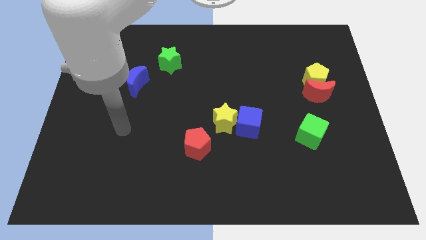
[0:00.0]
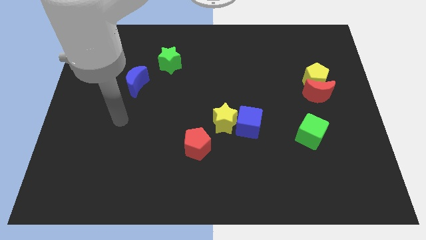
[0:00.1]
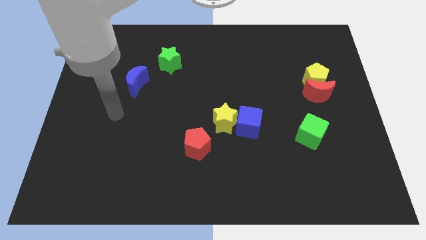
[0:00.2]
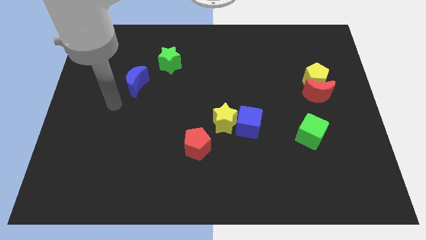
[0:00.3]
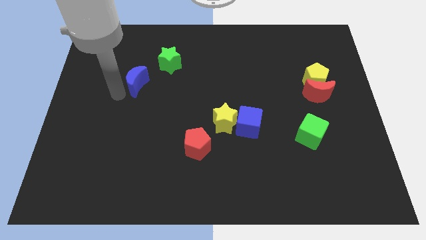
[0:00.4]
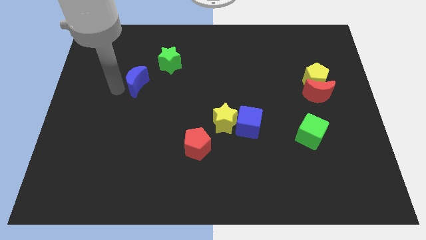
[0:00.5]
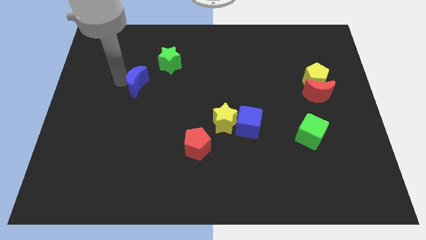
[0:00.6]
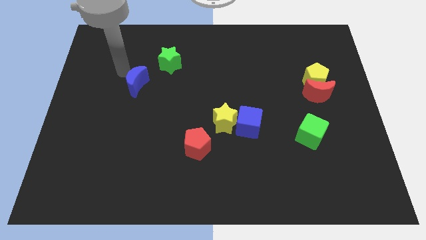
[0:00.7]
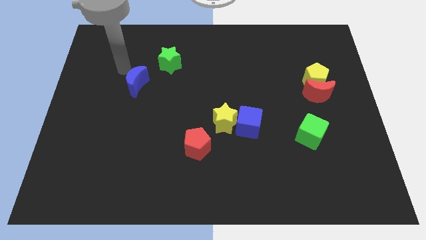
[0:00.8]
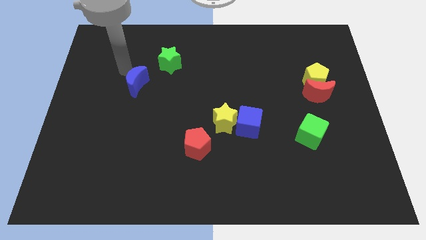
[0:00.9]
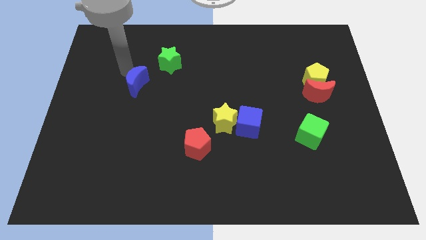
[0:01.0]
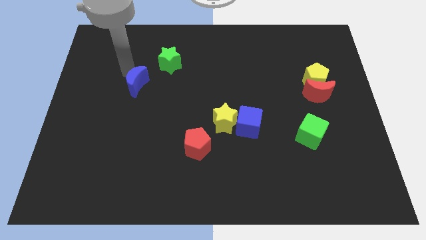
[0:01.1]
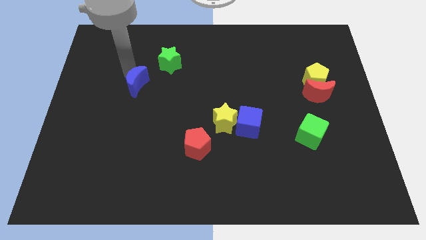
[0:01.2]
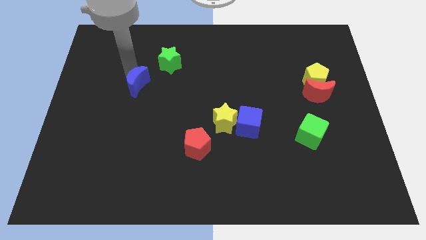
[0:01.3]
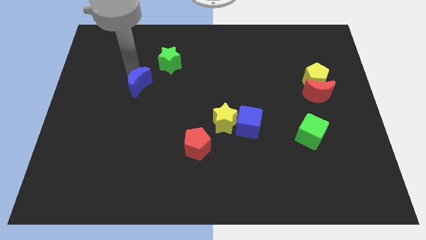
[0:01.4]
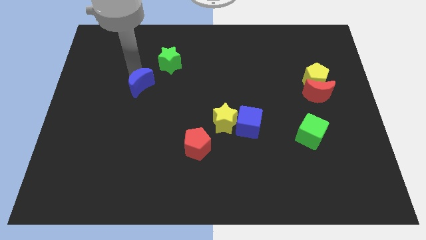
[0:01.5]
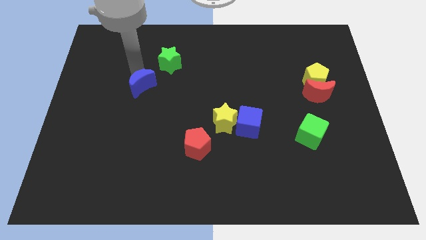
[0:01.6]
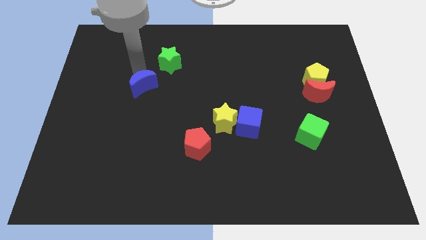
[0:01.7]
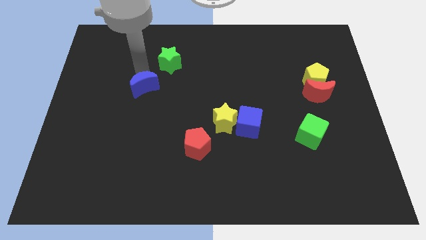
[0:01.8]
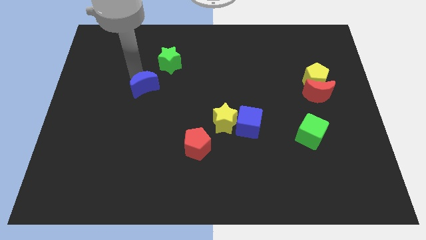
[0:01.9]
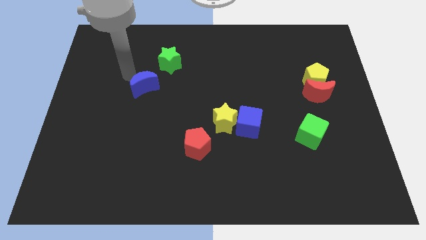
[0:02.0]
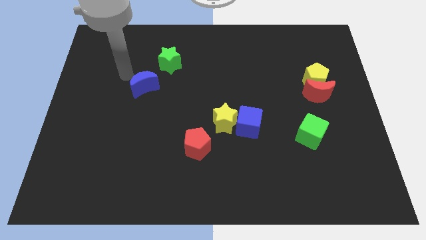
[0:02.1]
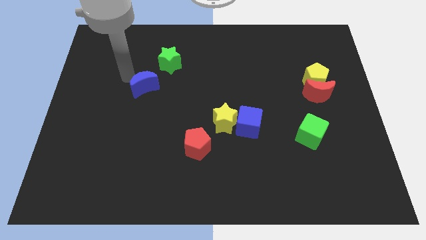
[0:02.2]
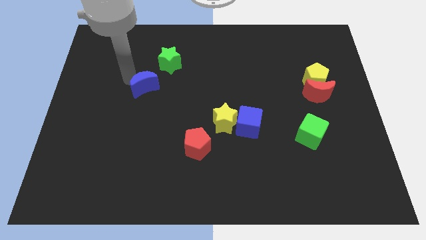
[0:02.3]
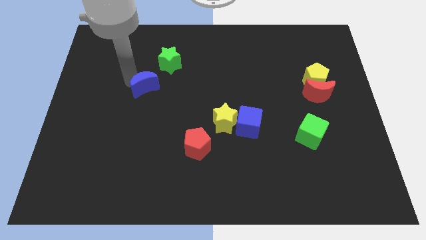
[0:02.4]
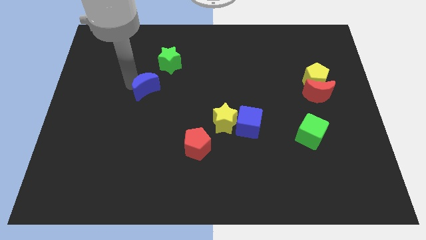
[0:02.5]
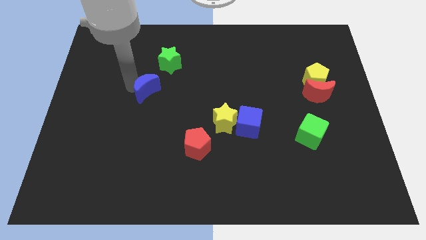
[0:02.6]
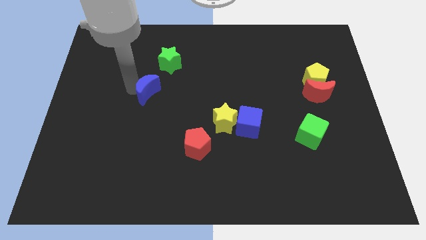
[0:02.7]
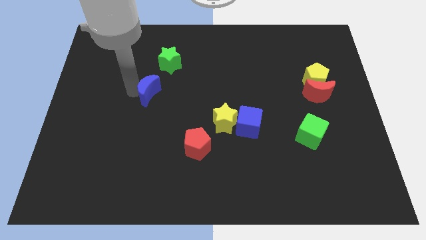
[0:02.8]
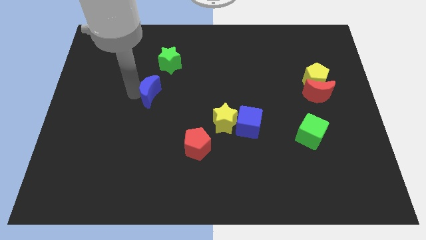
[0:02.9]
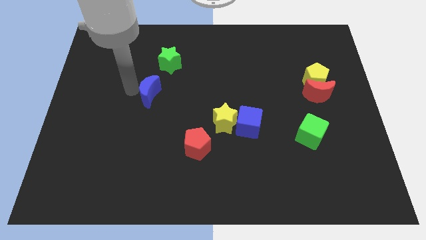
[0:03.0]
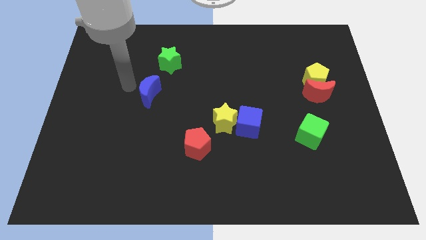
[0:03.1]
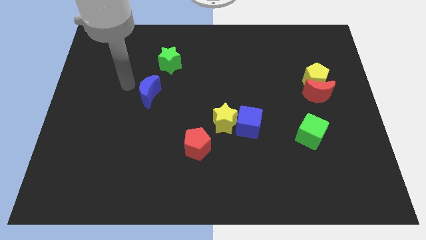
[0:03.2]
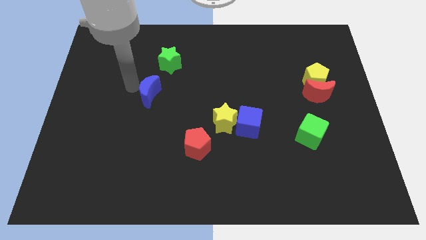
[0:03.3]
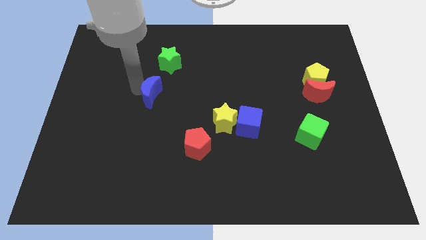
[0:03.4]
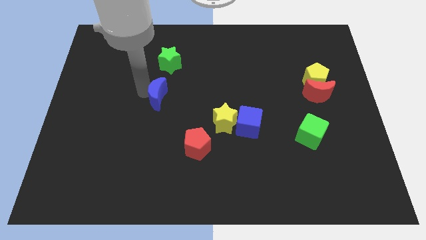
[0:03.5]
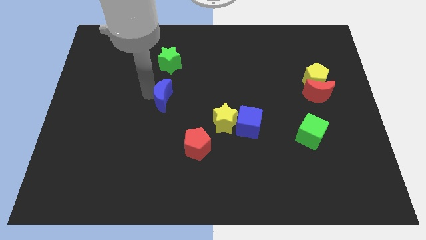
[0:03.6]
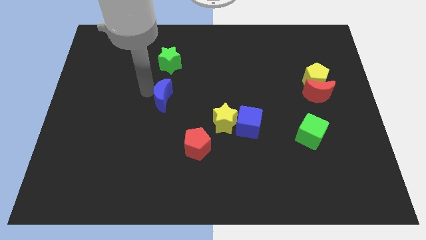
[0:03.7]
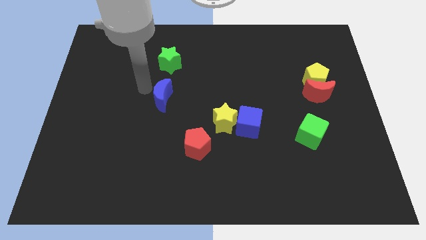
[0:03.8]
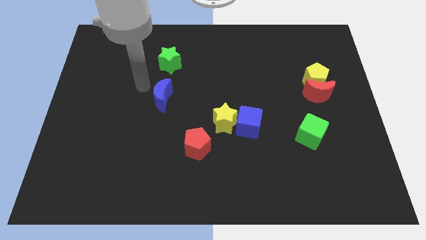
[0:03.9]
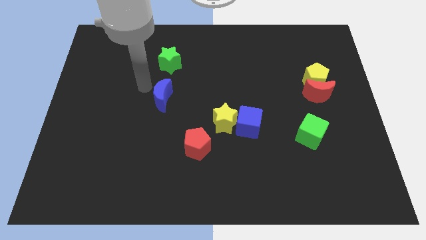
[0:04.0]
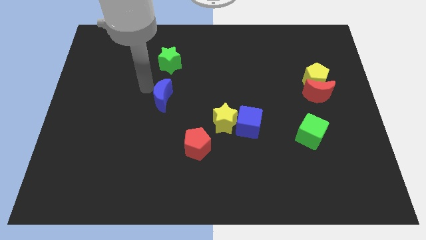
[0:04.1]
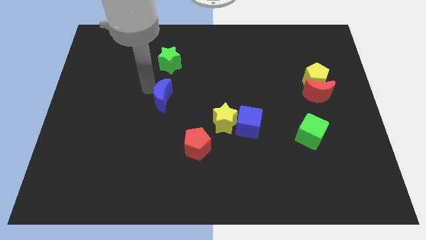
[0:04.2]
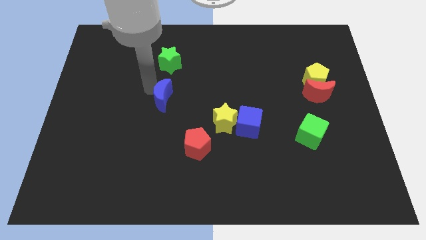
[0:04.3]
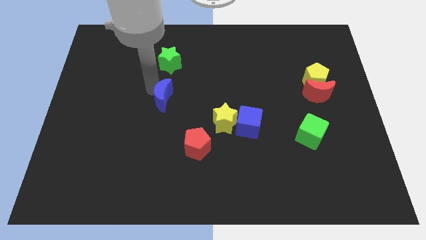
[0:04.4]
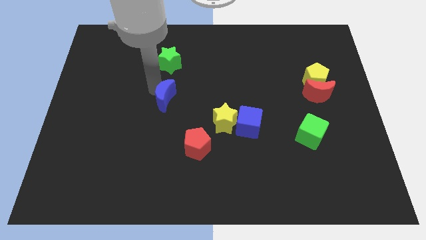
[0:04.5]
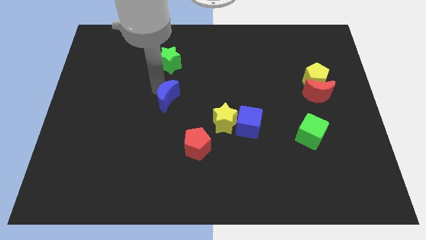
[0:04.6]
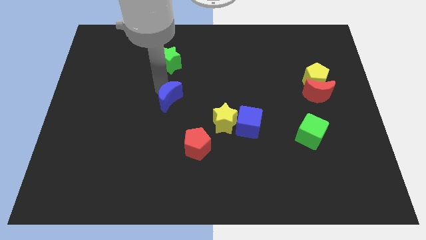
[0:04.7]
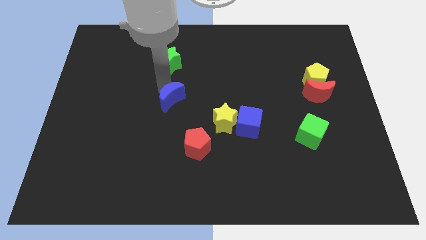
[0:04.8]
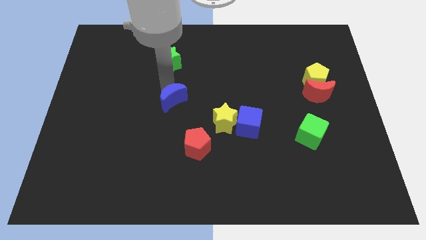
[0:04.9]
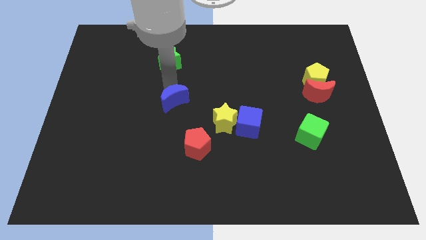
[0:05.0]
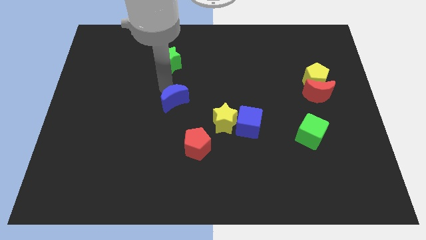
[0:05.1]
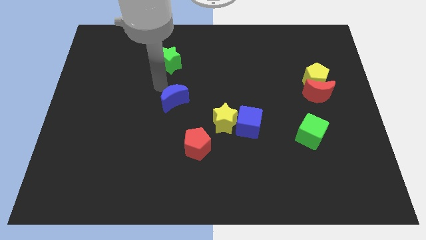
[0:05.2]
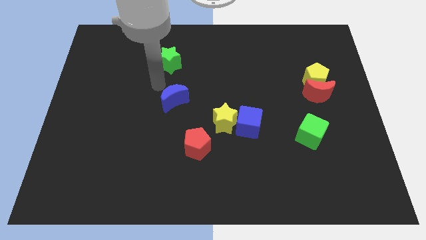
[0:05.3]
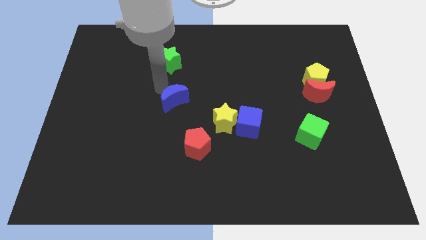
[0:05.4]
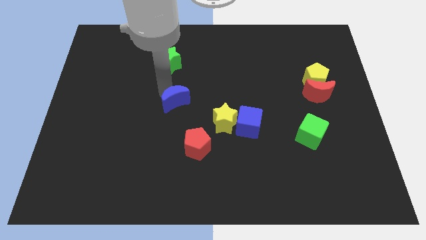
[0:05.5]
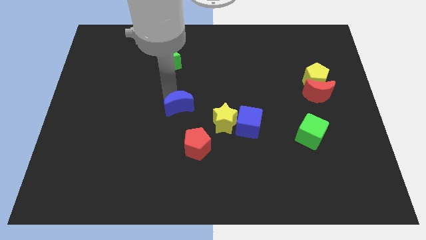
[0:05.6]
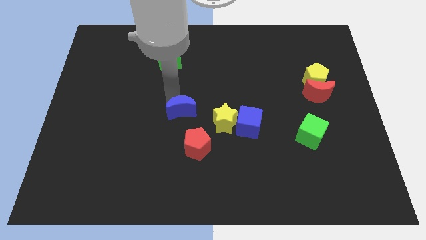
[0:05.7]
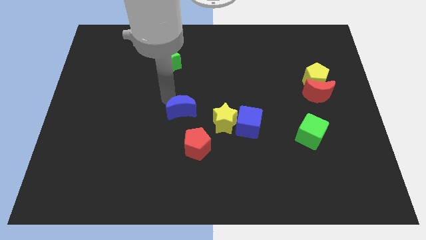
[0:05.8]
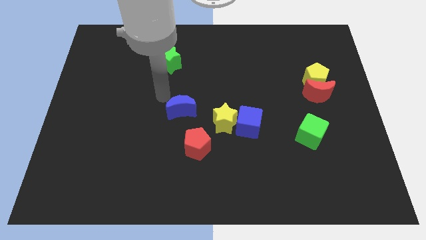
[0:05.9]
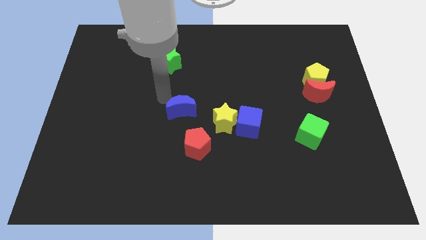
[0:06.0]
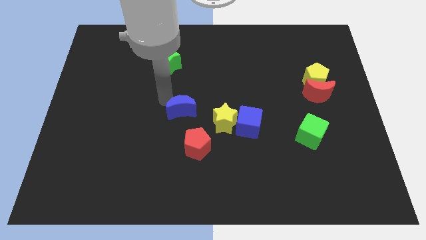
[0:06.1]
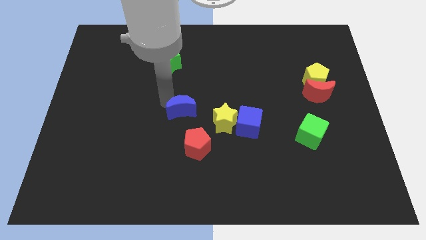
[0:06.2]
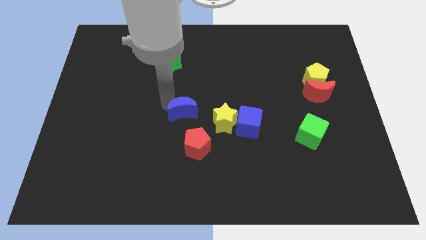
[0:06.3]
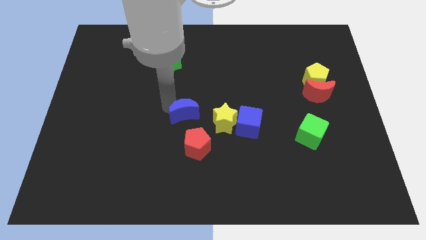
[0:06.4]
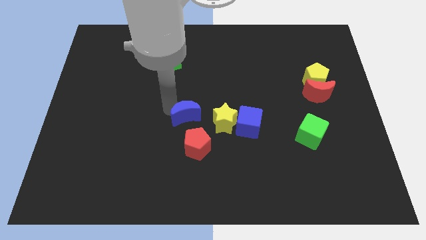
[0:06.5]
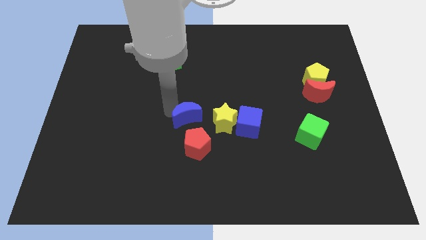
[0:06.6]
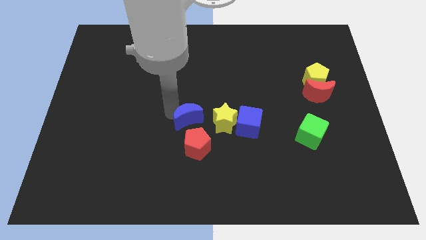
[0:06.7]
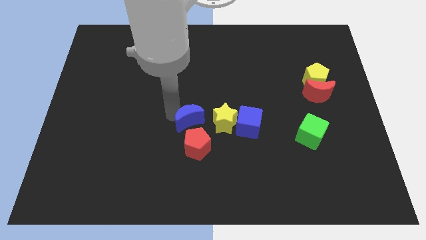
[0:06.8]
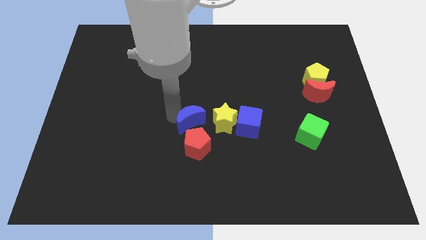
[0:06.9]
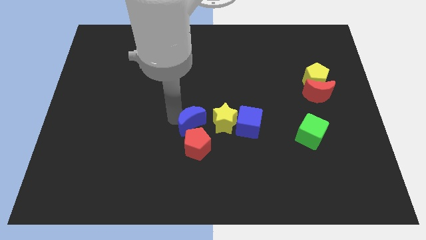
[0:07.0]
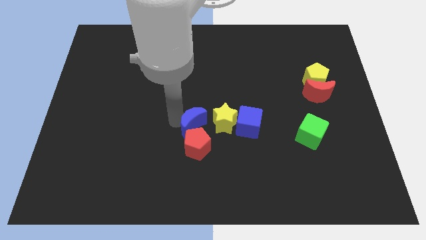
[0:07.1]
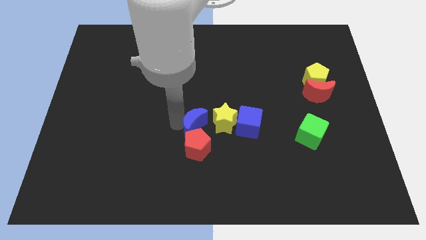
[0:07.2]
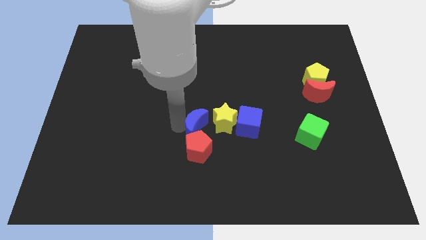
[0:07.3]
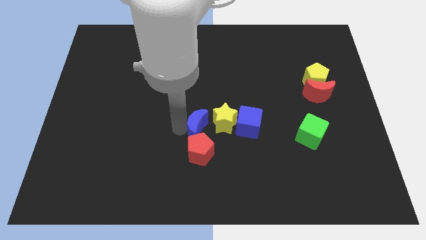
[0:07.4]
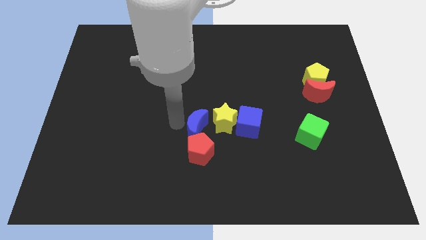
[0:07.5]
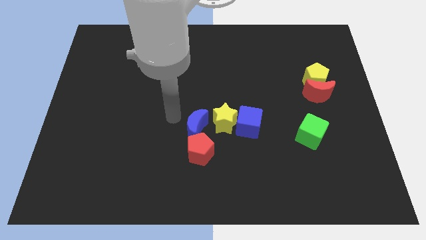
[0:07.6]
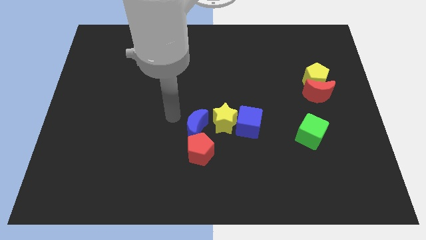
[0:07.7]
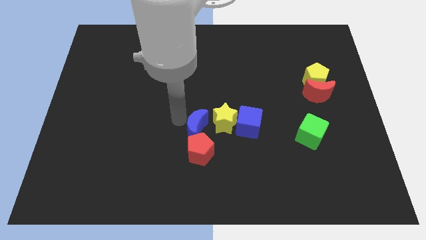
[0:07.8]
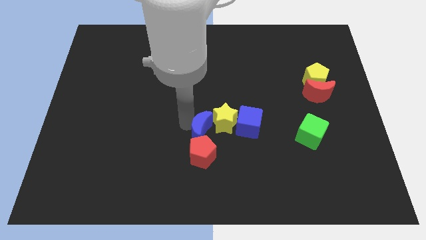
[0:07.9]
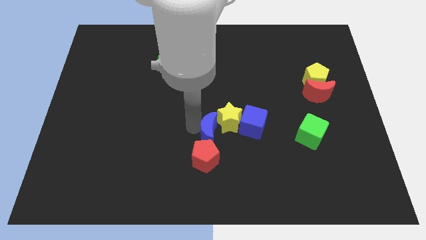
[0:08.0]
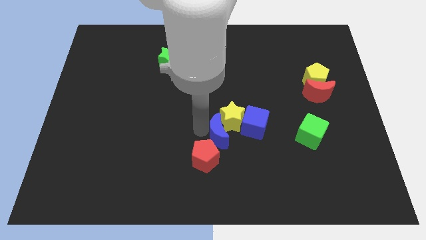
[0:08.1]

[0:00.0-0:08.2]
move the blue moon to the bottom left of the blue cube
